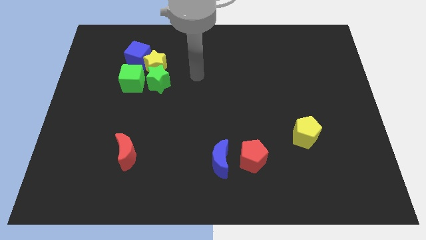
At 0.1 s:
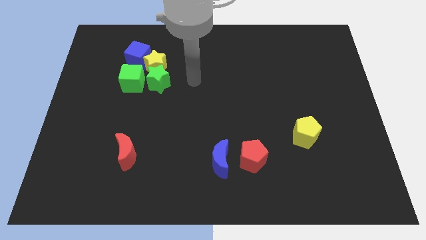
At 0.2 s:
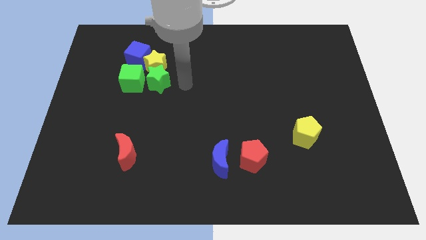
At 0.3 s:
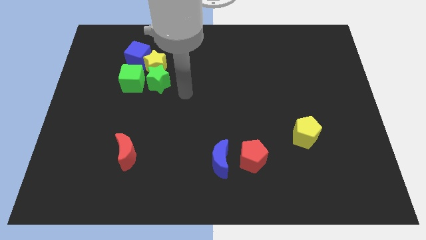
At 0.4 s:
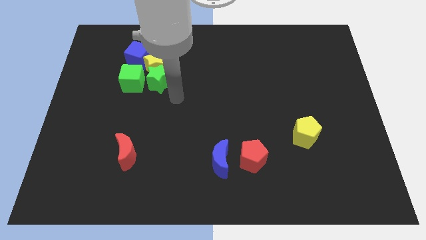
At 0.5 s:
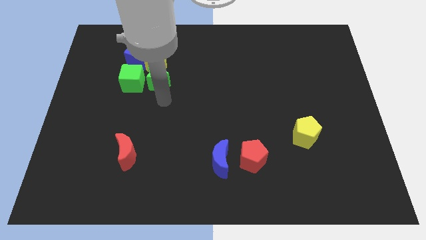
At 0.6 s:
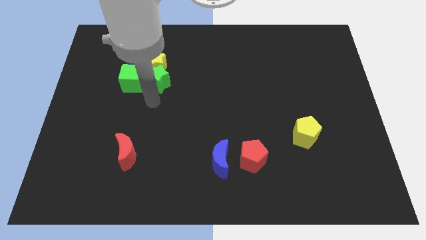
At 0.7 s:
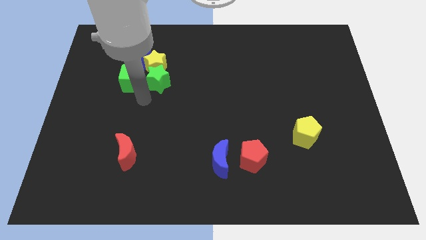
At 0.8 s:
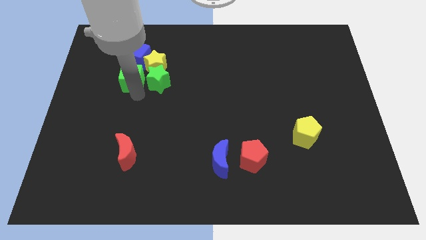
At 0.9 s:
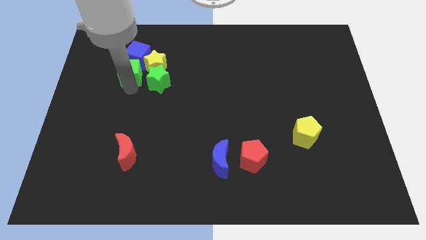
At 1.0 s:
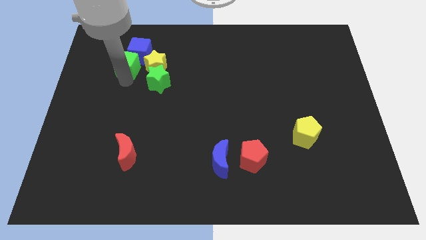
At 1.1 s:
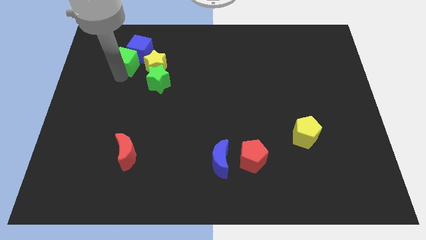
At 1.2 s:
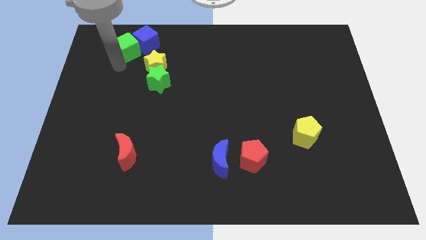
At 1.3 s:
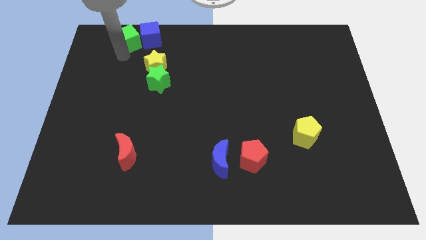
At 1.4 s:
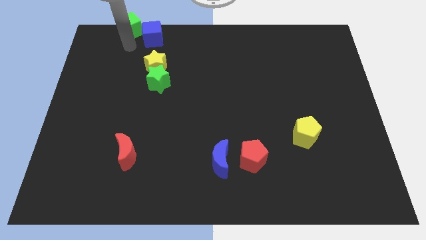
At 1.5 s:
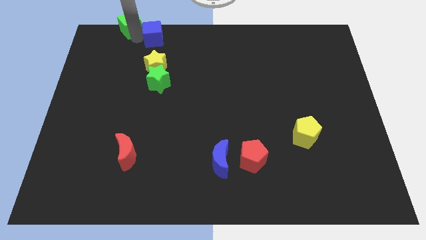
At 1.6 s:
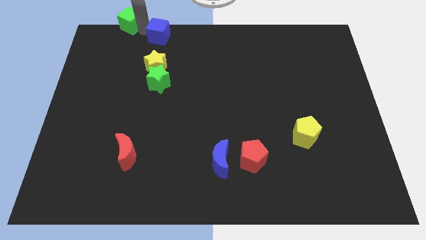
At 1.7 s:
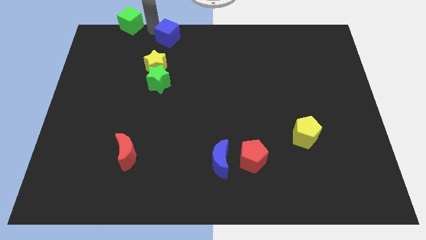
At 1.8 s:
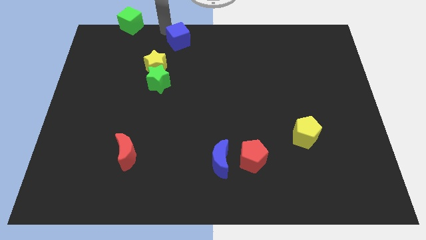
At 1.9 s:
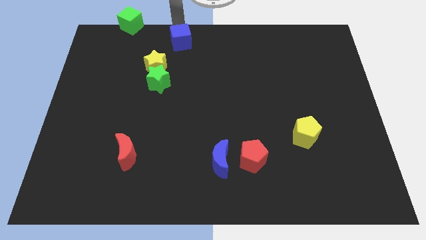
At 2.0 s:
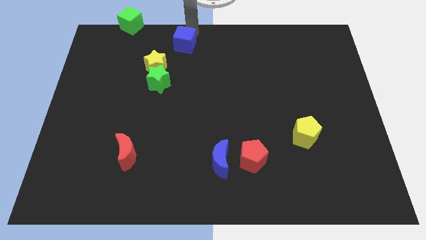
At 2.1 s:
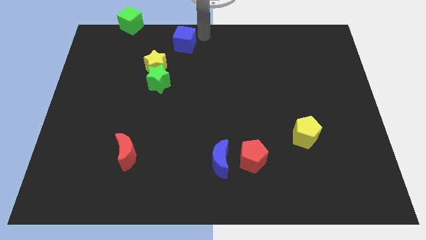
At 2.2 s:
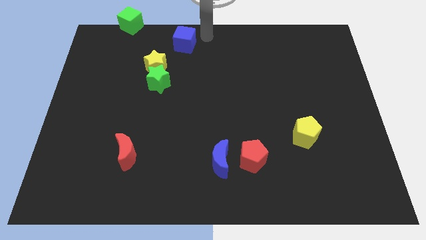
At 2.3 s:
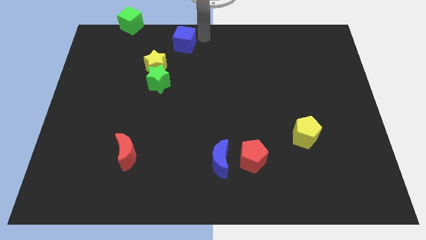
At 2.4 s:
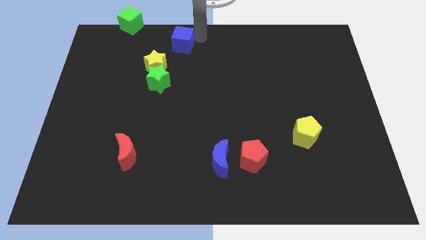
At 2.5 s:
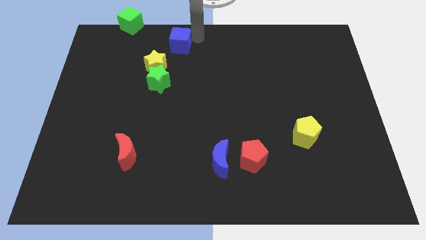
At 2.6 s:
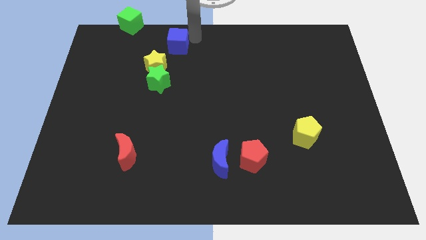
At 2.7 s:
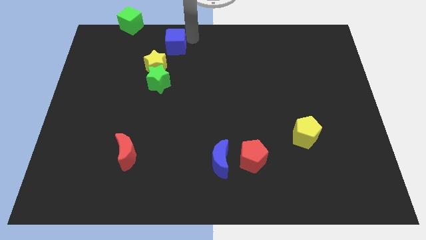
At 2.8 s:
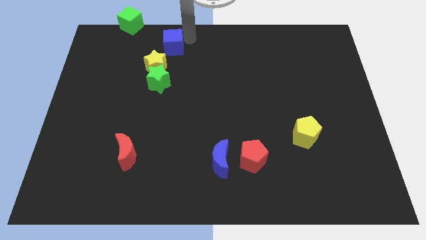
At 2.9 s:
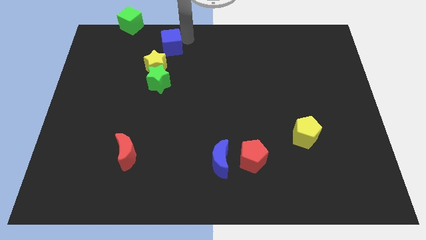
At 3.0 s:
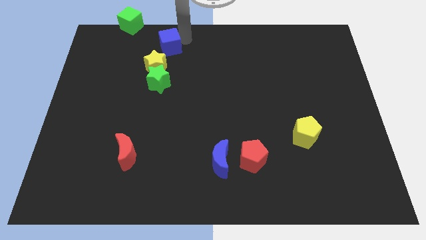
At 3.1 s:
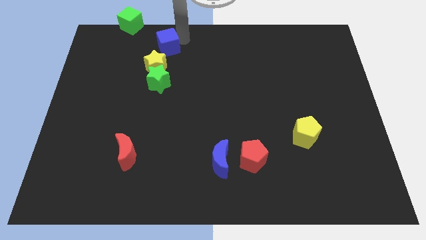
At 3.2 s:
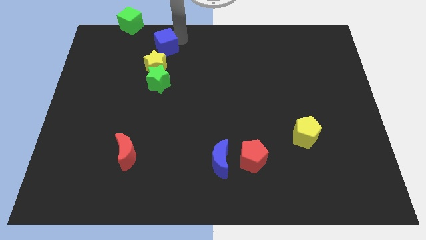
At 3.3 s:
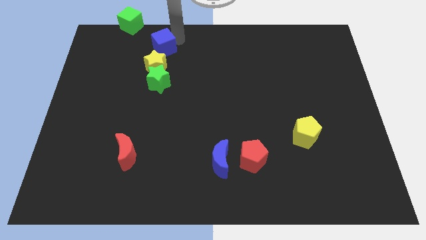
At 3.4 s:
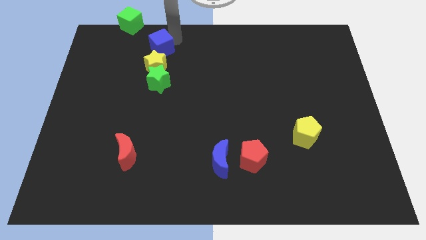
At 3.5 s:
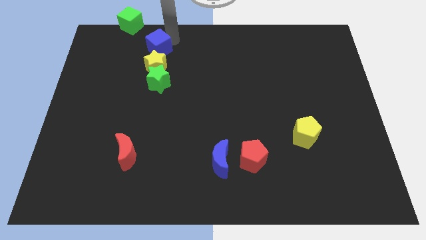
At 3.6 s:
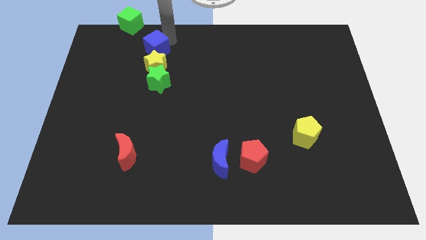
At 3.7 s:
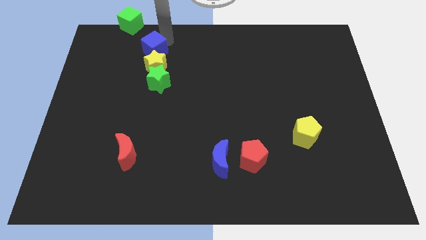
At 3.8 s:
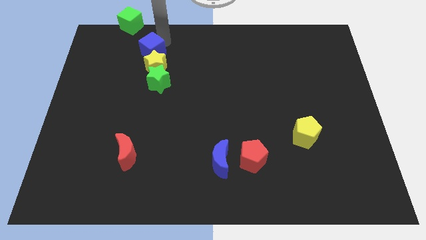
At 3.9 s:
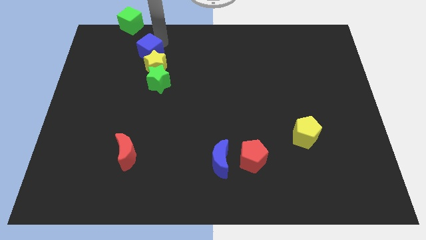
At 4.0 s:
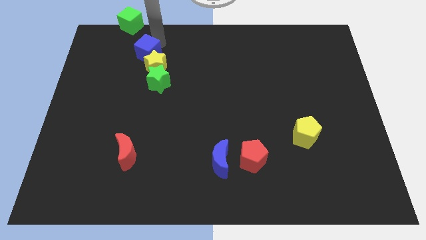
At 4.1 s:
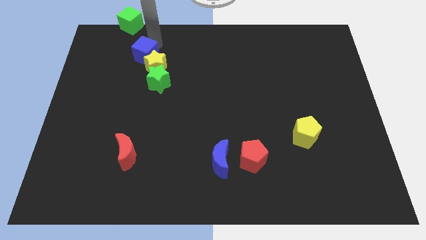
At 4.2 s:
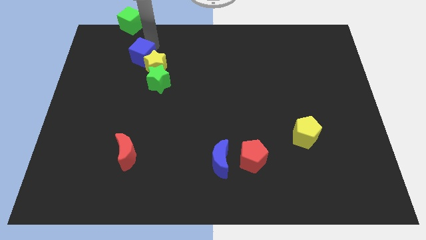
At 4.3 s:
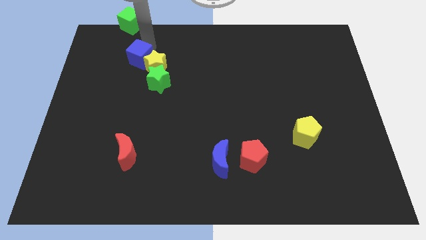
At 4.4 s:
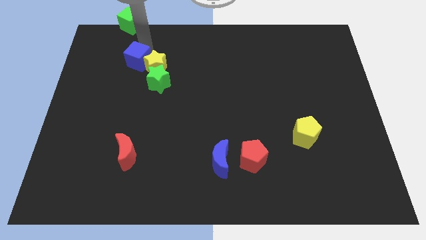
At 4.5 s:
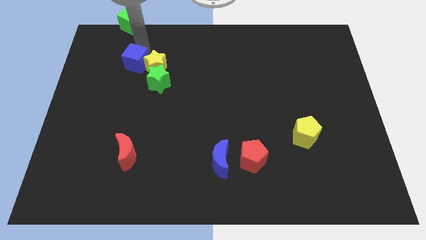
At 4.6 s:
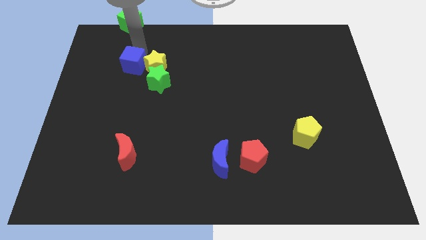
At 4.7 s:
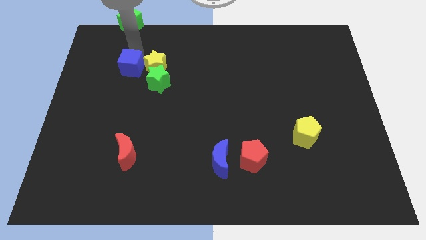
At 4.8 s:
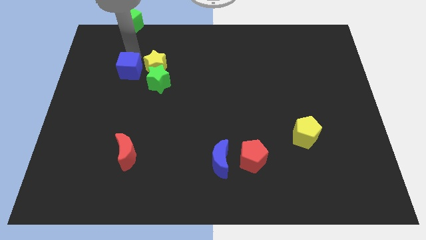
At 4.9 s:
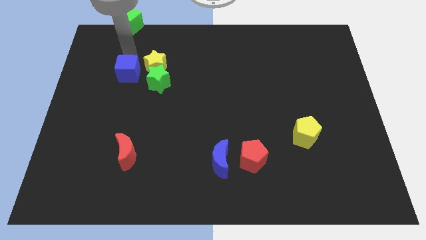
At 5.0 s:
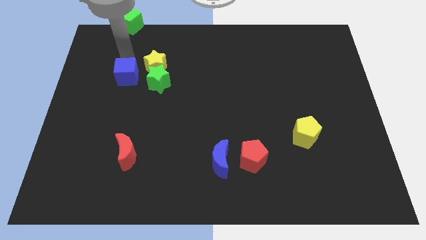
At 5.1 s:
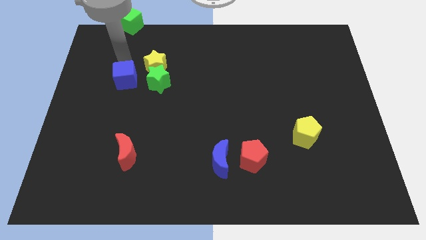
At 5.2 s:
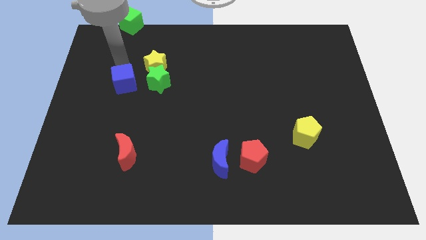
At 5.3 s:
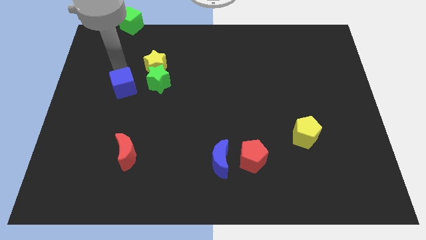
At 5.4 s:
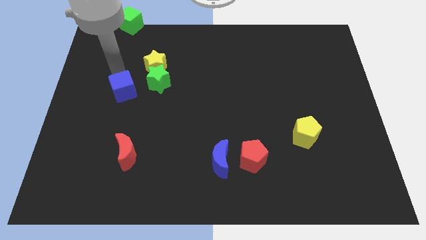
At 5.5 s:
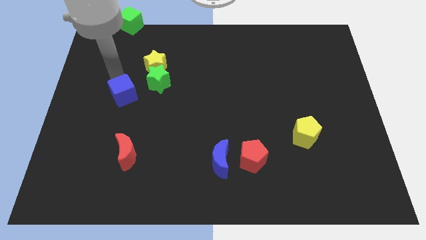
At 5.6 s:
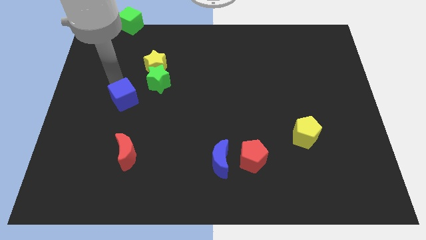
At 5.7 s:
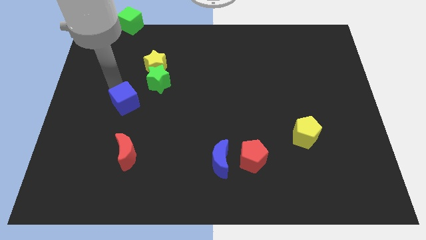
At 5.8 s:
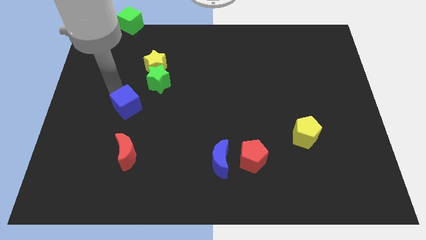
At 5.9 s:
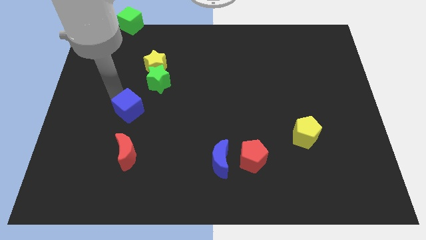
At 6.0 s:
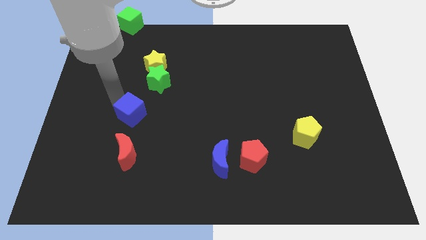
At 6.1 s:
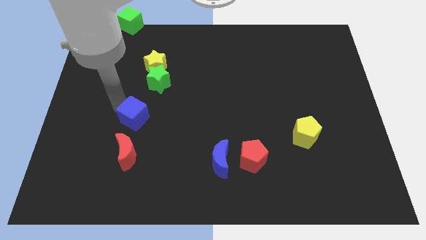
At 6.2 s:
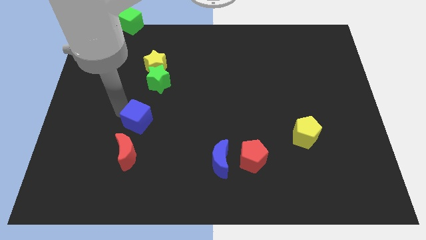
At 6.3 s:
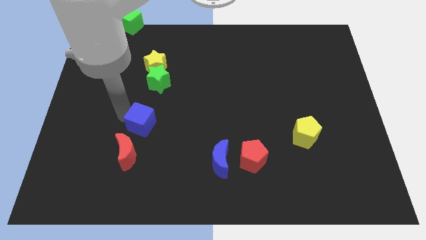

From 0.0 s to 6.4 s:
push the blue cube a bit downwards and right diagonally

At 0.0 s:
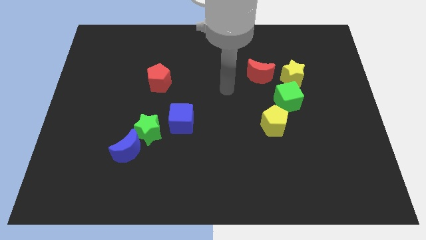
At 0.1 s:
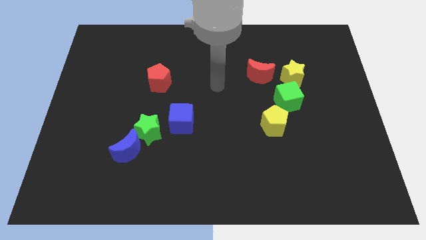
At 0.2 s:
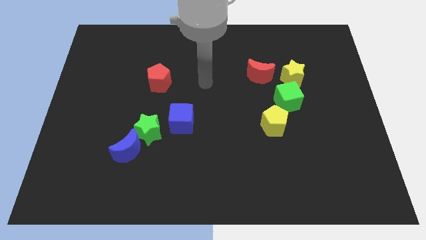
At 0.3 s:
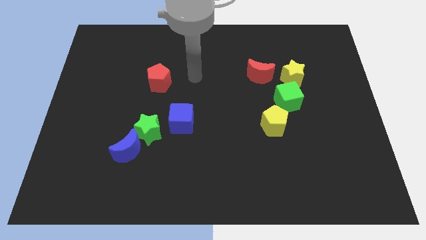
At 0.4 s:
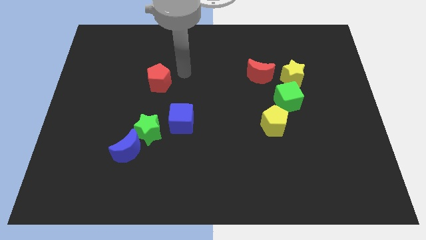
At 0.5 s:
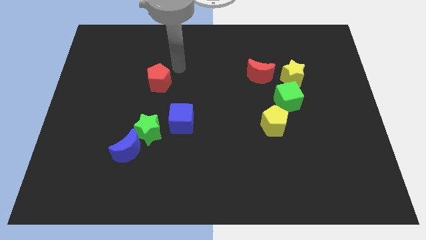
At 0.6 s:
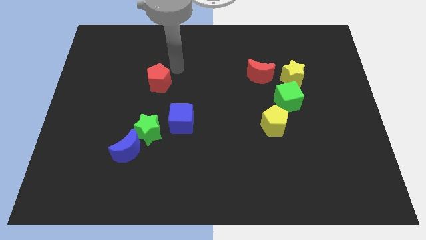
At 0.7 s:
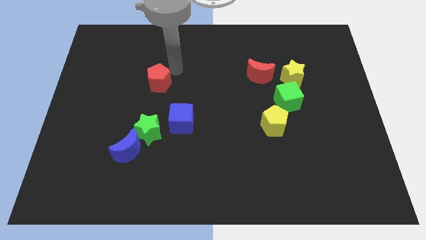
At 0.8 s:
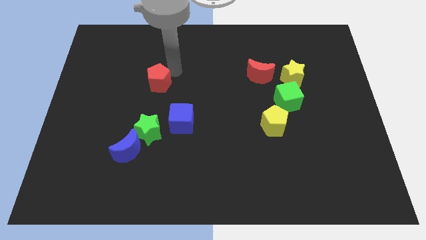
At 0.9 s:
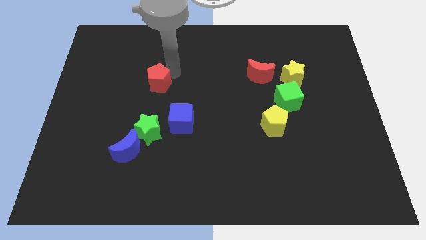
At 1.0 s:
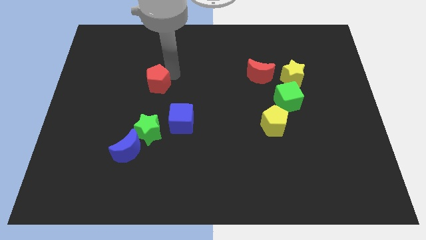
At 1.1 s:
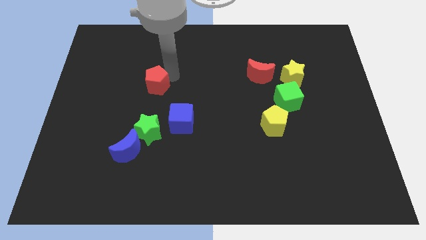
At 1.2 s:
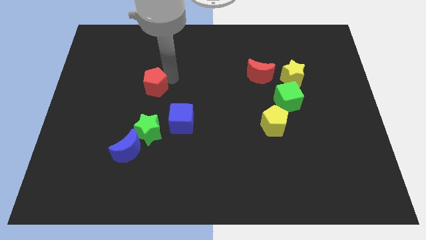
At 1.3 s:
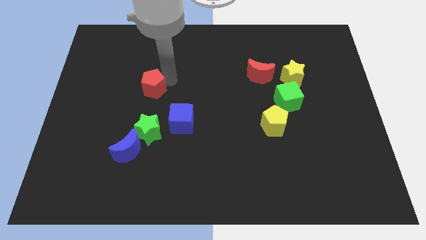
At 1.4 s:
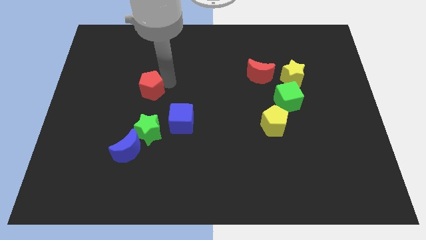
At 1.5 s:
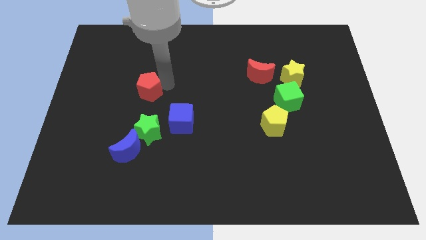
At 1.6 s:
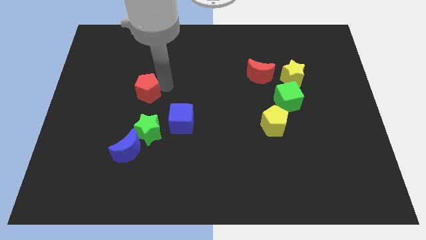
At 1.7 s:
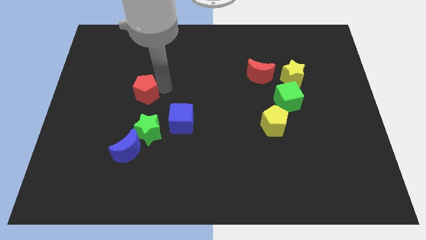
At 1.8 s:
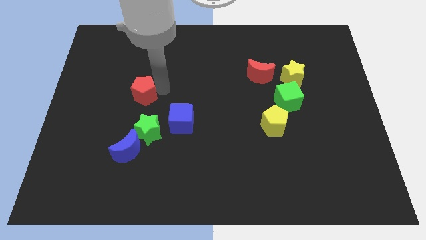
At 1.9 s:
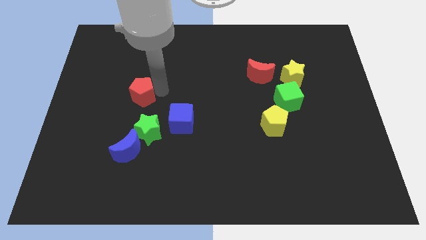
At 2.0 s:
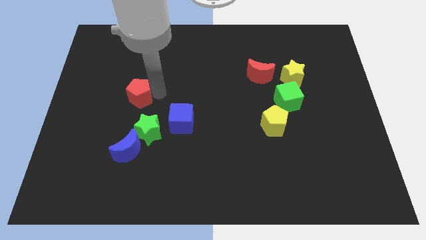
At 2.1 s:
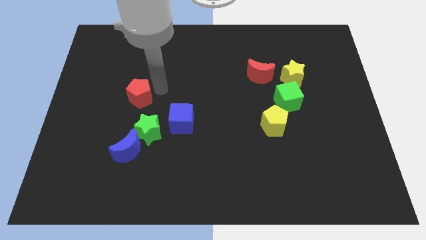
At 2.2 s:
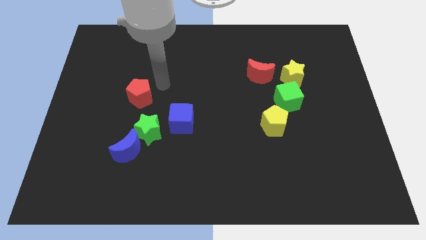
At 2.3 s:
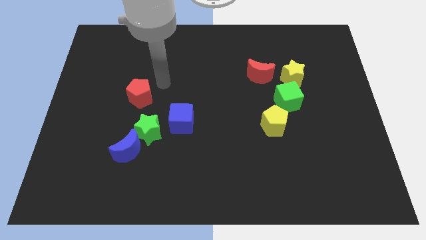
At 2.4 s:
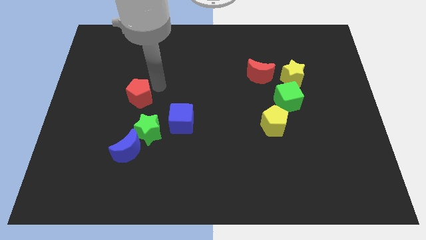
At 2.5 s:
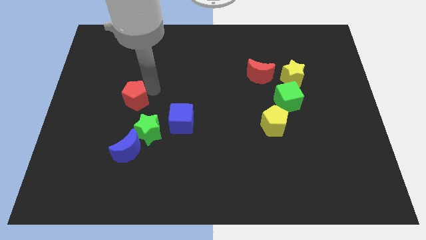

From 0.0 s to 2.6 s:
slightly move the red pentagon downwards and left diagonally
